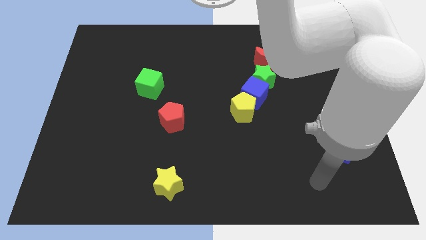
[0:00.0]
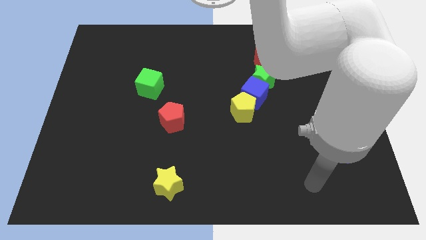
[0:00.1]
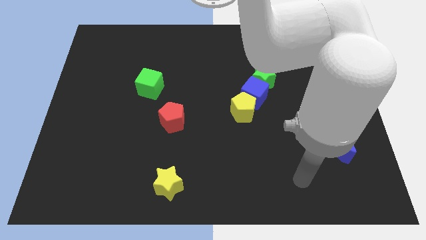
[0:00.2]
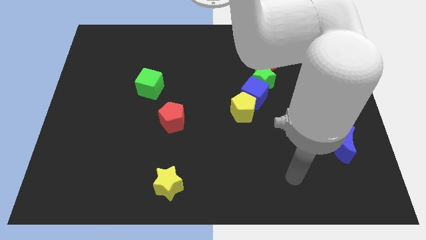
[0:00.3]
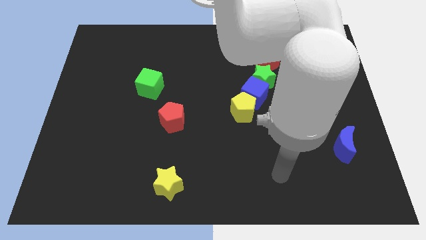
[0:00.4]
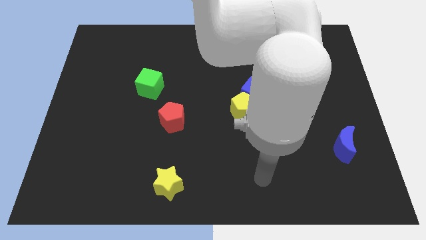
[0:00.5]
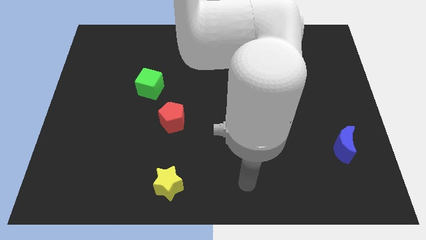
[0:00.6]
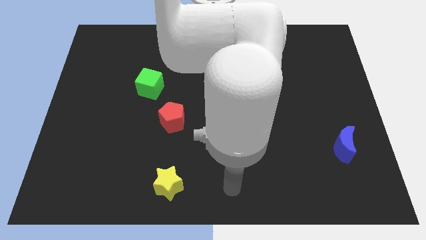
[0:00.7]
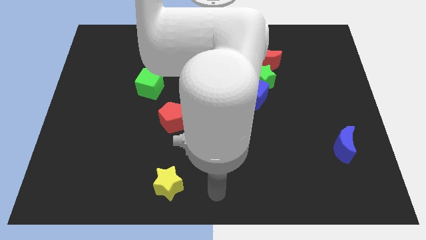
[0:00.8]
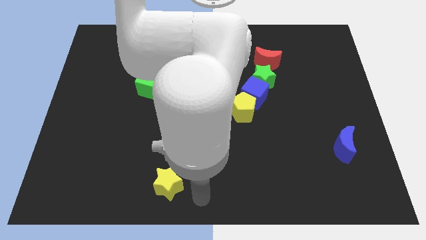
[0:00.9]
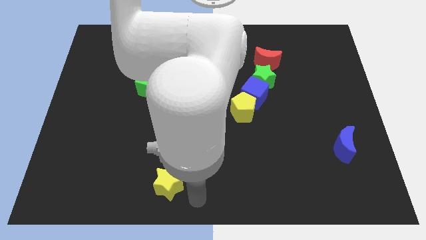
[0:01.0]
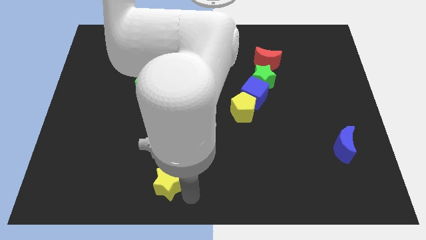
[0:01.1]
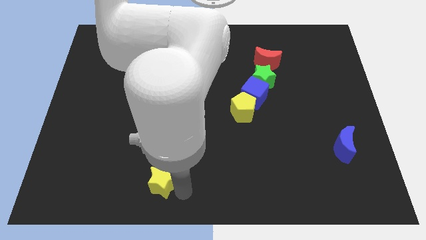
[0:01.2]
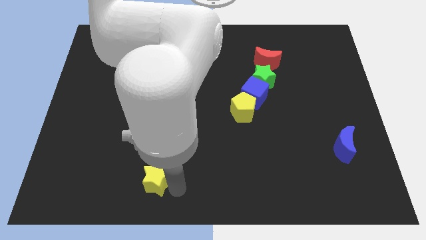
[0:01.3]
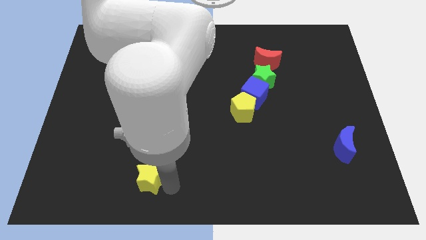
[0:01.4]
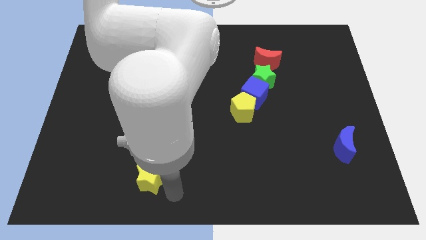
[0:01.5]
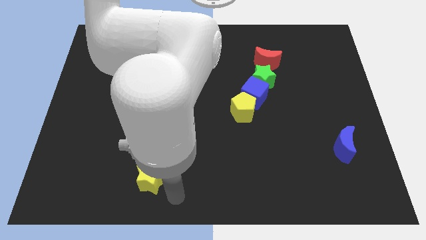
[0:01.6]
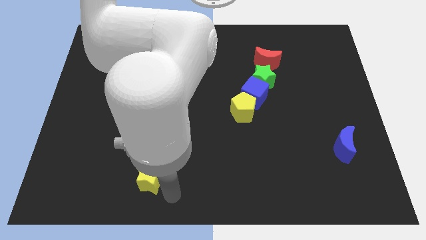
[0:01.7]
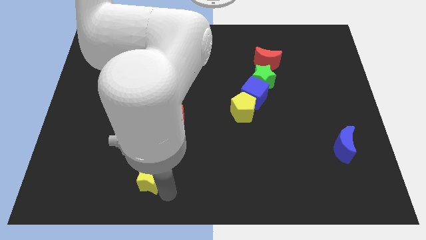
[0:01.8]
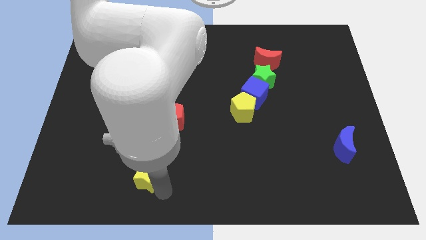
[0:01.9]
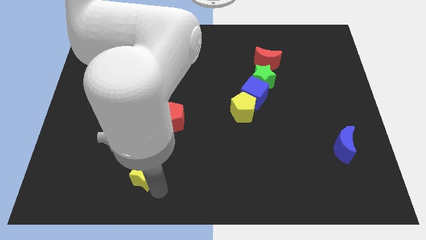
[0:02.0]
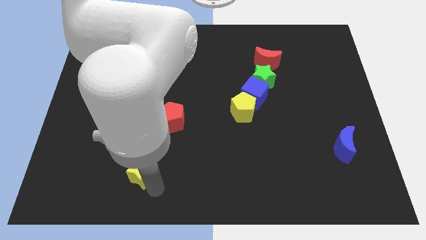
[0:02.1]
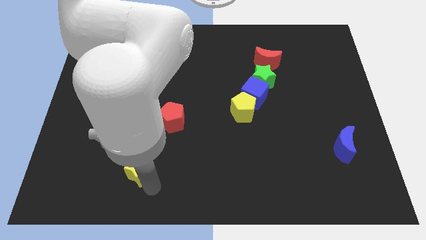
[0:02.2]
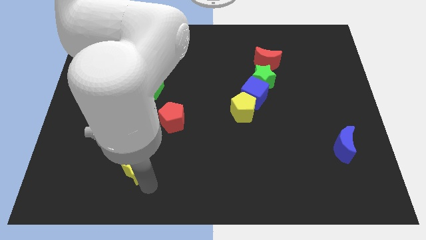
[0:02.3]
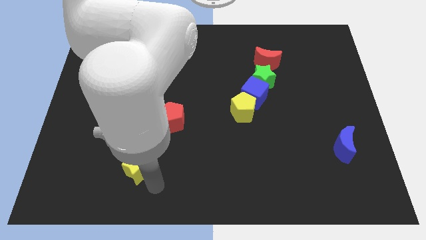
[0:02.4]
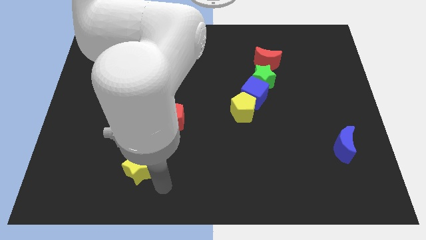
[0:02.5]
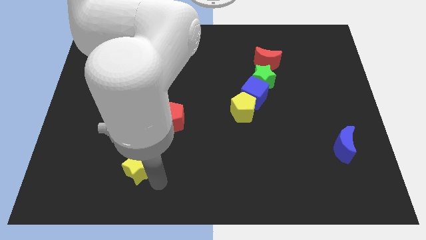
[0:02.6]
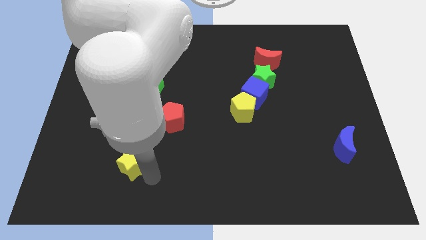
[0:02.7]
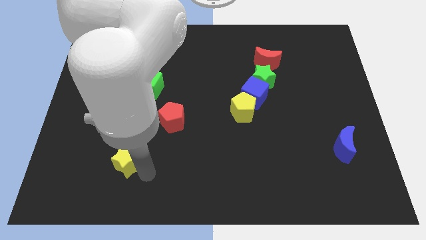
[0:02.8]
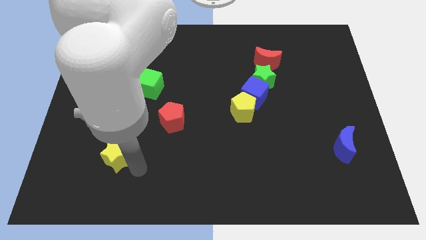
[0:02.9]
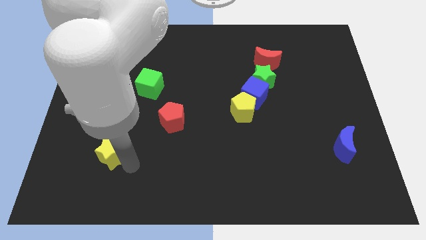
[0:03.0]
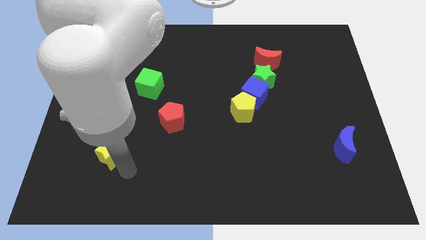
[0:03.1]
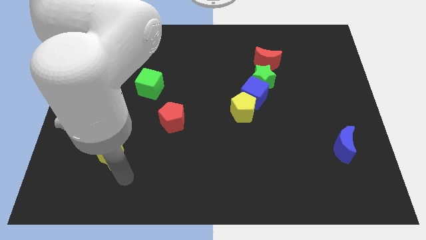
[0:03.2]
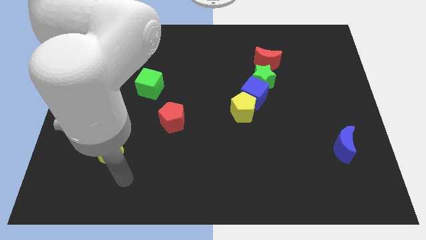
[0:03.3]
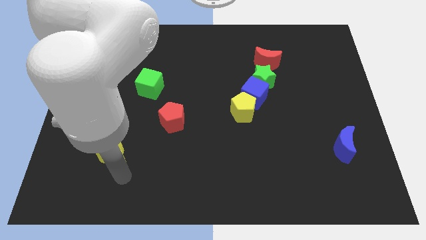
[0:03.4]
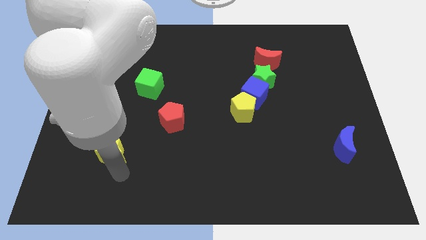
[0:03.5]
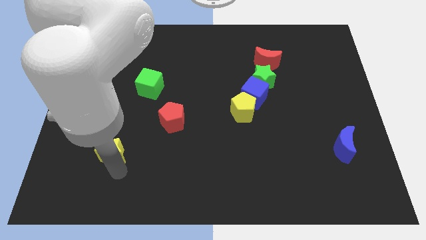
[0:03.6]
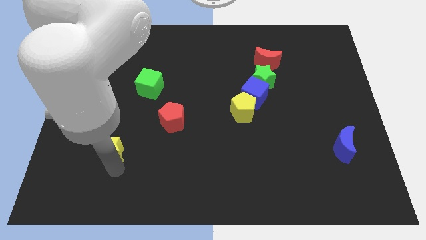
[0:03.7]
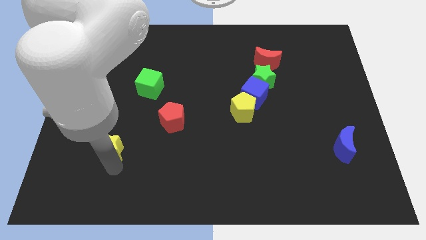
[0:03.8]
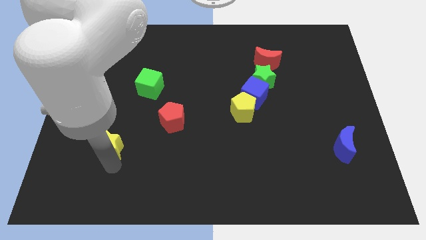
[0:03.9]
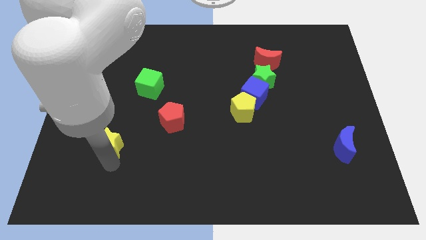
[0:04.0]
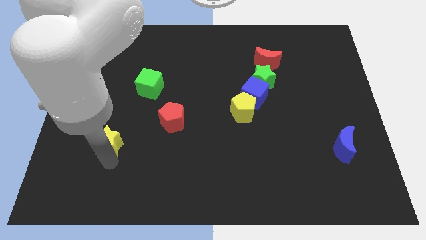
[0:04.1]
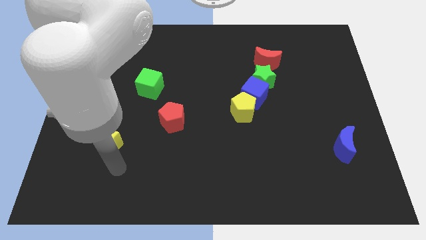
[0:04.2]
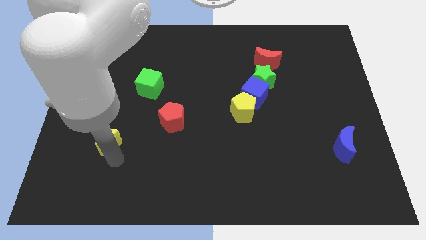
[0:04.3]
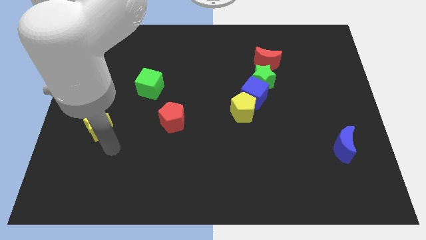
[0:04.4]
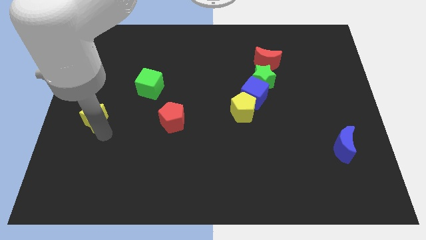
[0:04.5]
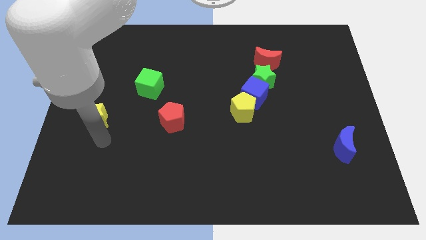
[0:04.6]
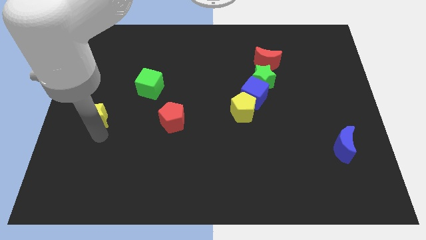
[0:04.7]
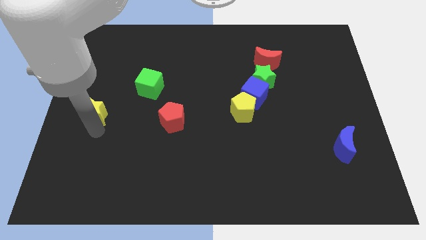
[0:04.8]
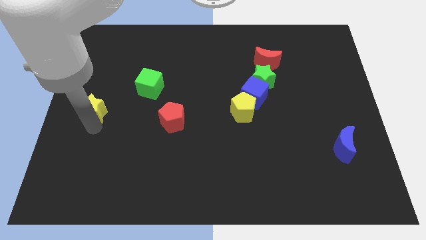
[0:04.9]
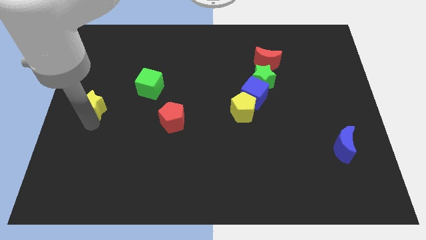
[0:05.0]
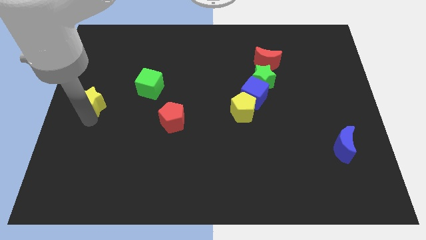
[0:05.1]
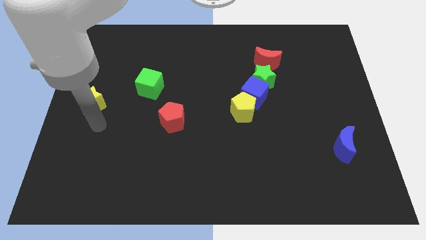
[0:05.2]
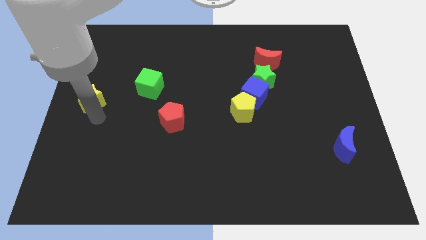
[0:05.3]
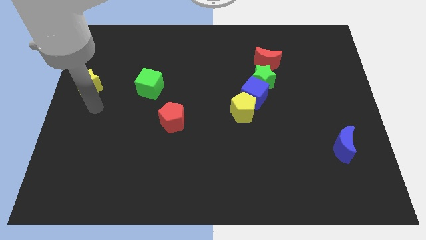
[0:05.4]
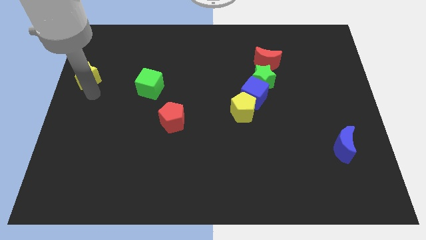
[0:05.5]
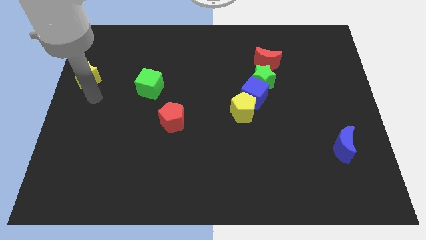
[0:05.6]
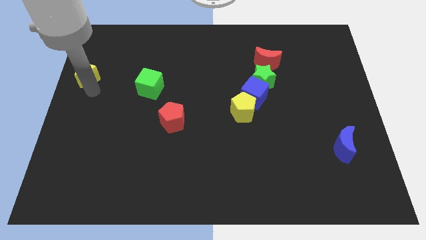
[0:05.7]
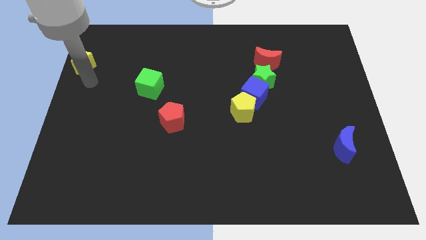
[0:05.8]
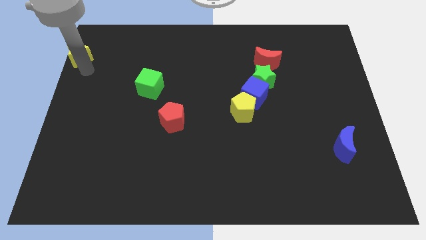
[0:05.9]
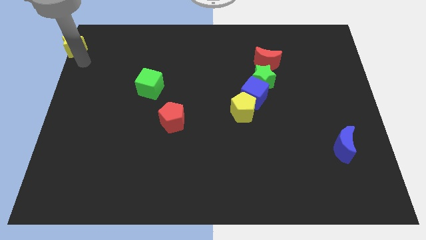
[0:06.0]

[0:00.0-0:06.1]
move the yellow star to the top left of the board

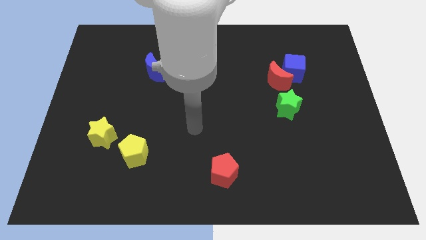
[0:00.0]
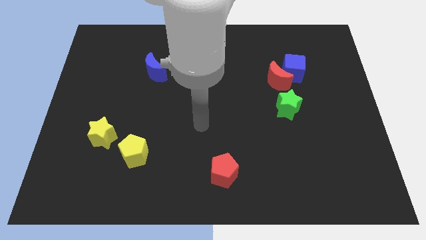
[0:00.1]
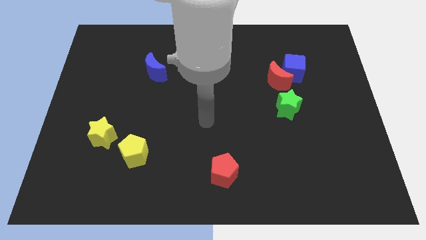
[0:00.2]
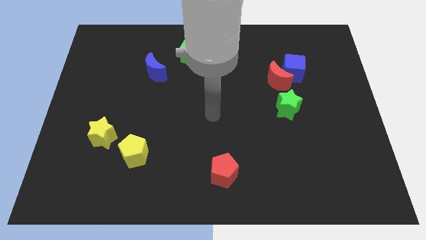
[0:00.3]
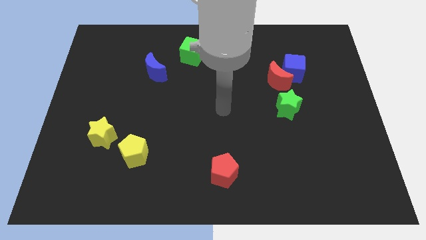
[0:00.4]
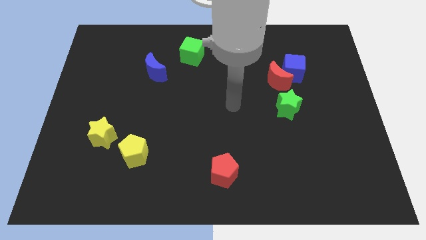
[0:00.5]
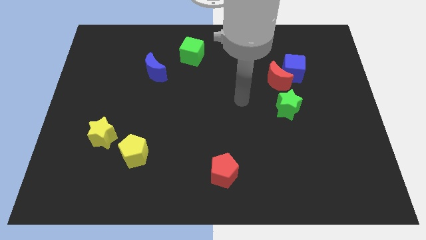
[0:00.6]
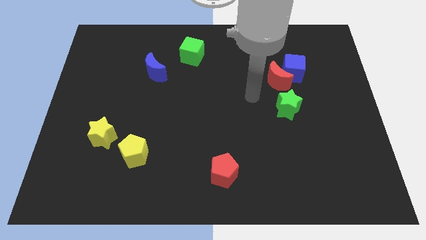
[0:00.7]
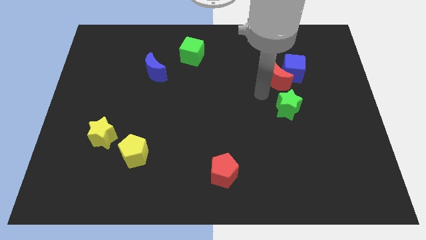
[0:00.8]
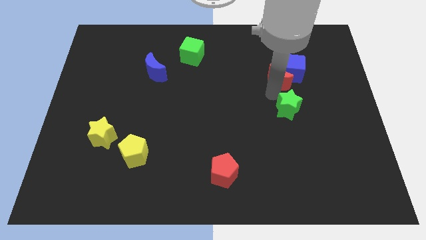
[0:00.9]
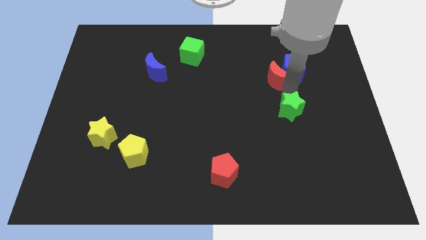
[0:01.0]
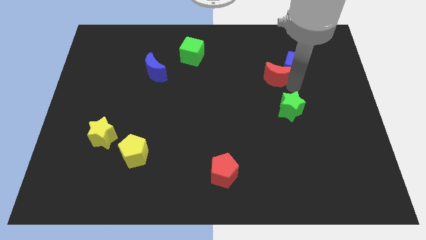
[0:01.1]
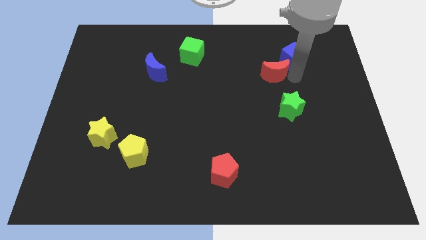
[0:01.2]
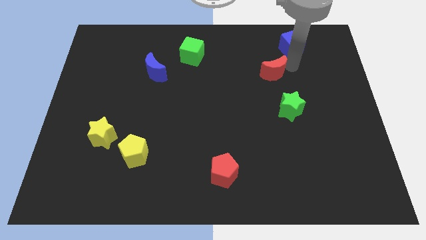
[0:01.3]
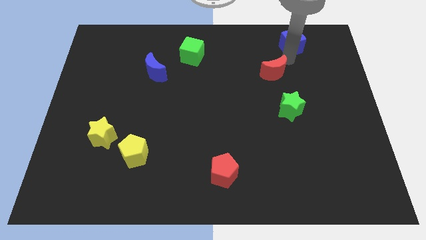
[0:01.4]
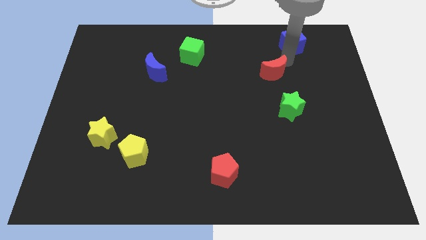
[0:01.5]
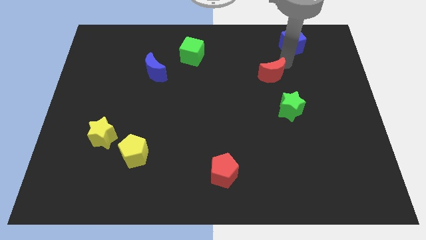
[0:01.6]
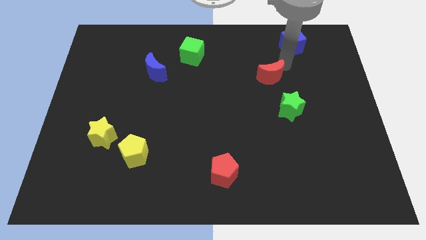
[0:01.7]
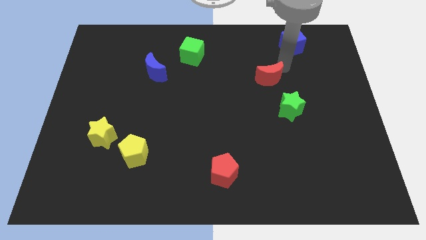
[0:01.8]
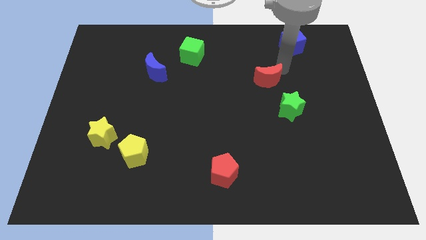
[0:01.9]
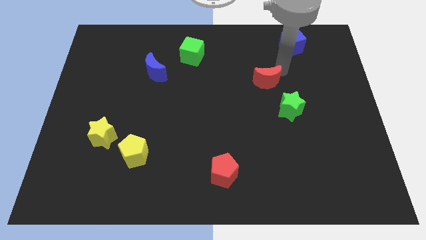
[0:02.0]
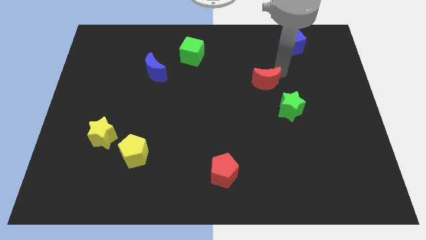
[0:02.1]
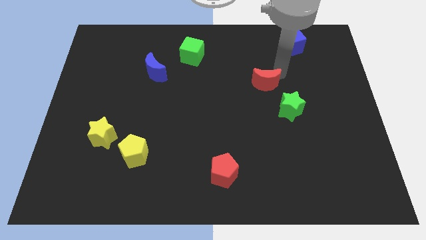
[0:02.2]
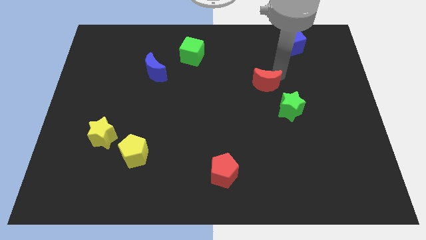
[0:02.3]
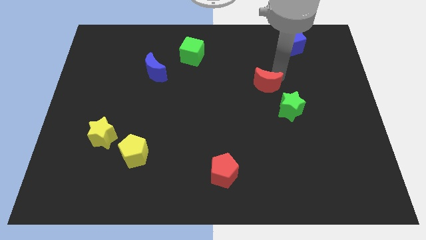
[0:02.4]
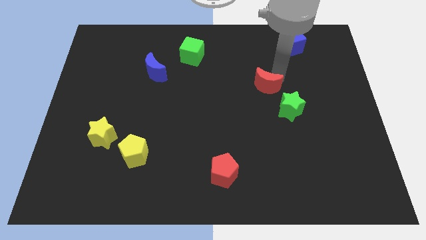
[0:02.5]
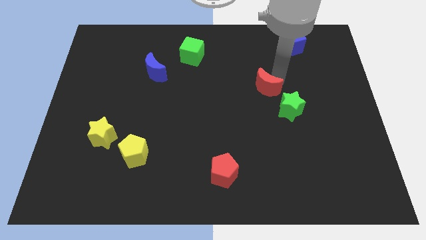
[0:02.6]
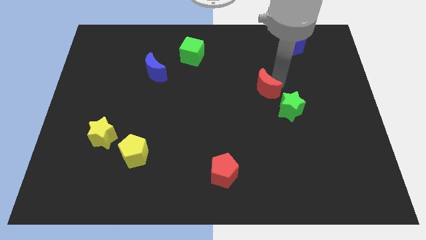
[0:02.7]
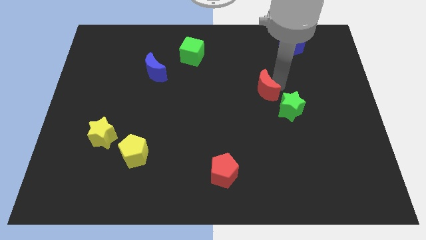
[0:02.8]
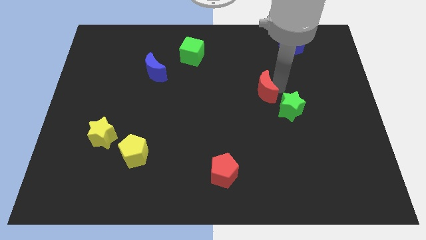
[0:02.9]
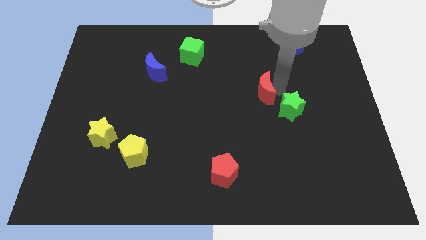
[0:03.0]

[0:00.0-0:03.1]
push the red moon to the center of the board
